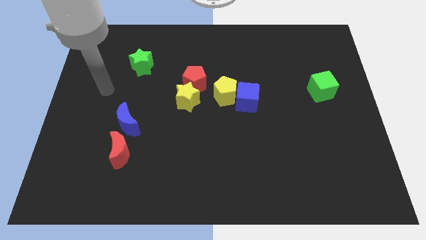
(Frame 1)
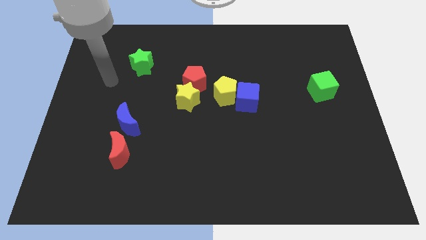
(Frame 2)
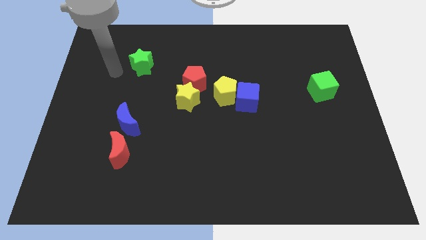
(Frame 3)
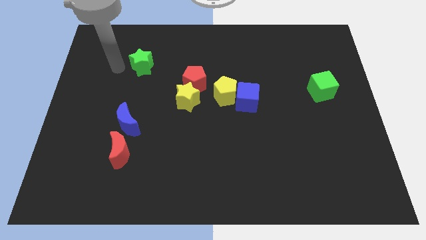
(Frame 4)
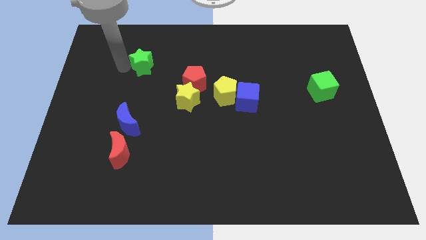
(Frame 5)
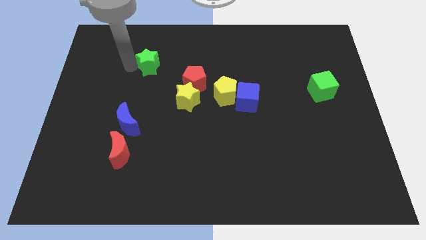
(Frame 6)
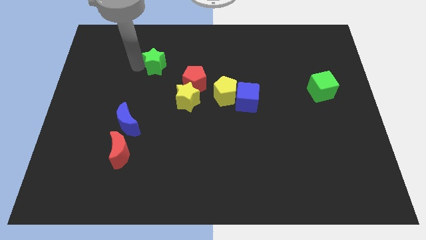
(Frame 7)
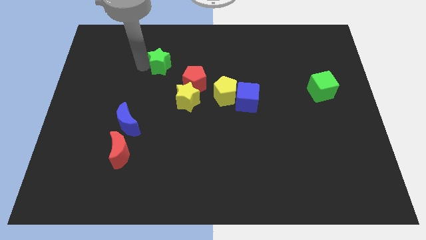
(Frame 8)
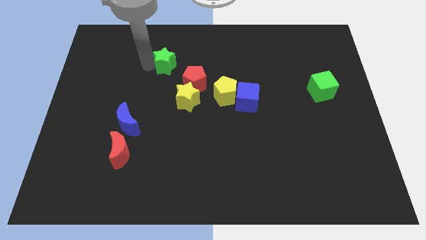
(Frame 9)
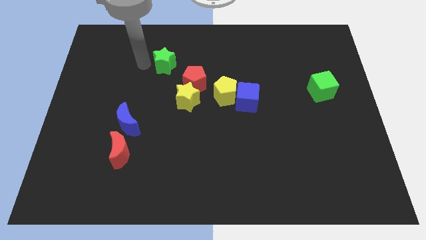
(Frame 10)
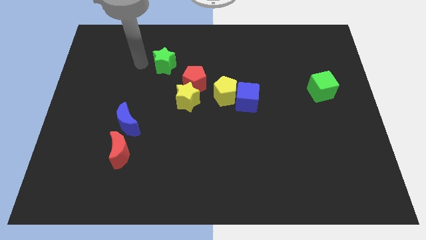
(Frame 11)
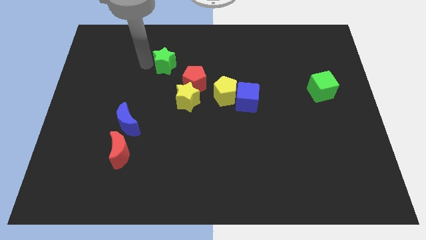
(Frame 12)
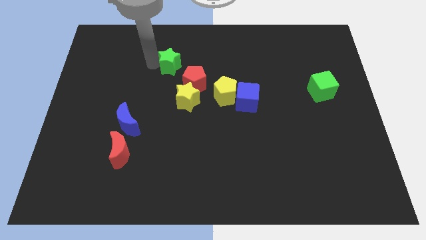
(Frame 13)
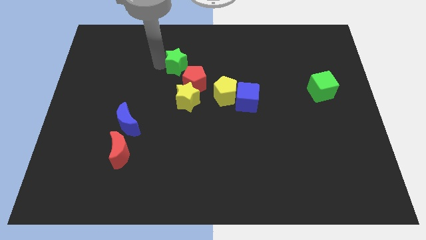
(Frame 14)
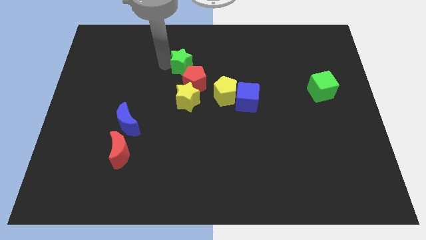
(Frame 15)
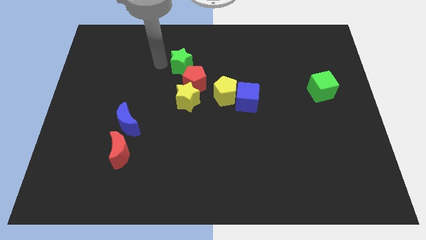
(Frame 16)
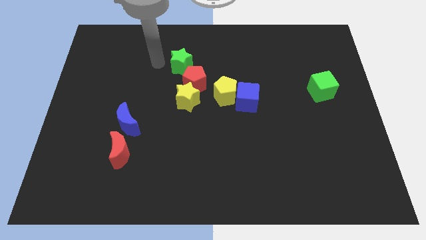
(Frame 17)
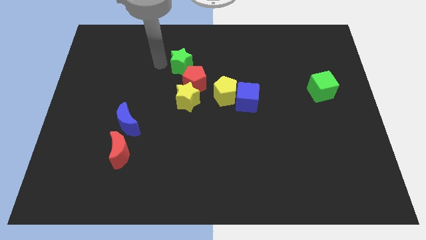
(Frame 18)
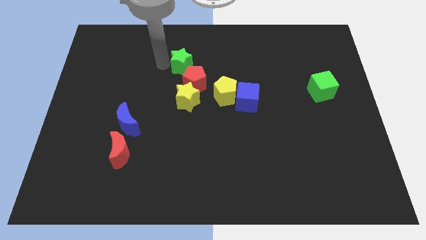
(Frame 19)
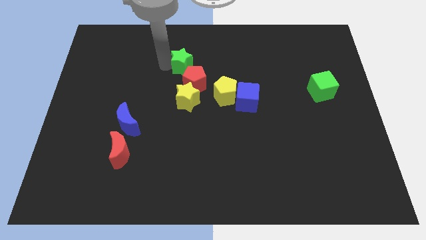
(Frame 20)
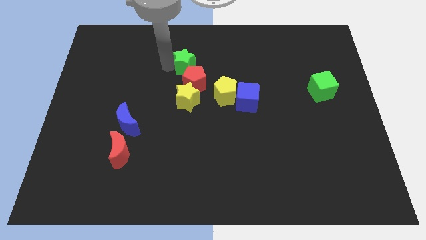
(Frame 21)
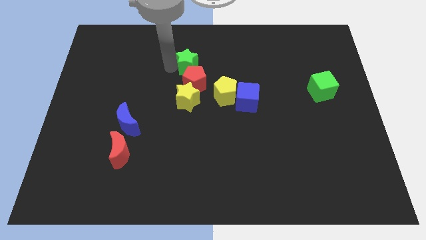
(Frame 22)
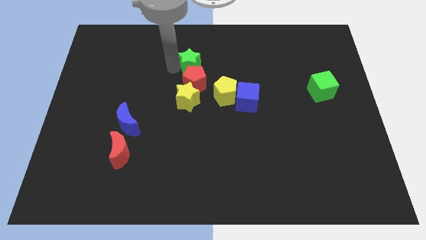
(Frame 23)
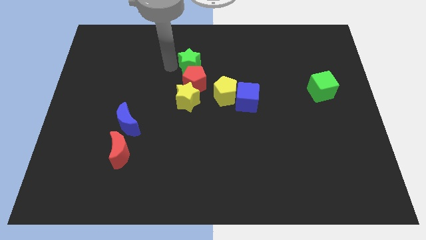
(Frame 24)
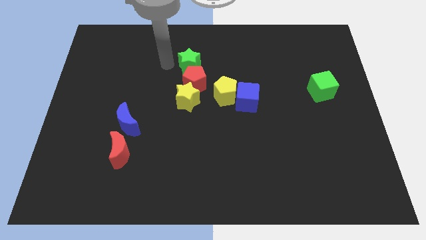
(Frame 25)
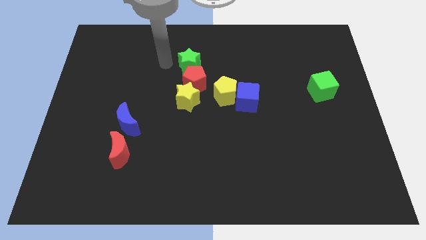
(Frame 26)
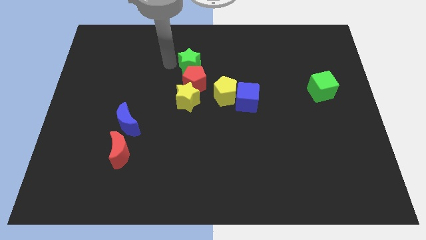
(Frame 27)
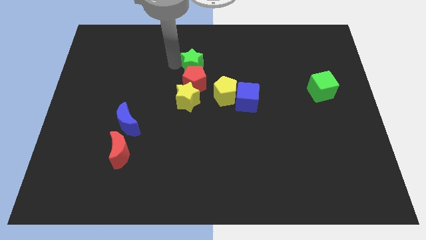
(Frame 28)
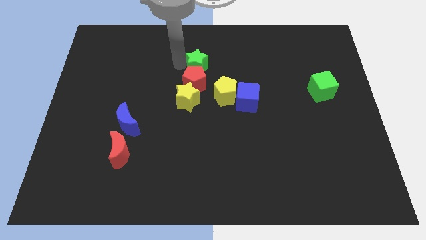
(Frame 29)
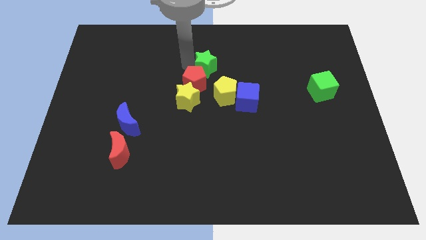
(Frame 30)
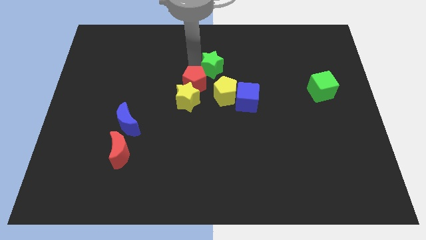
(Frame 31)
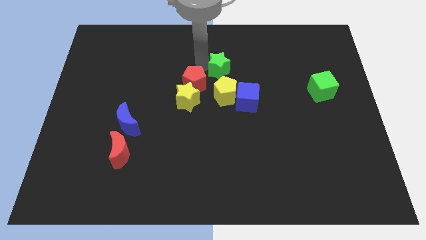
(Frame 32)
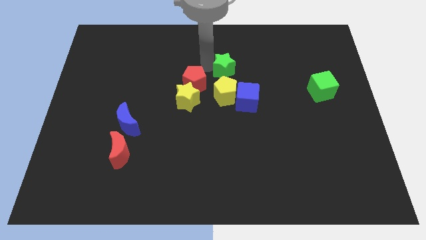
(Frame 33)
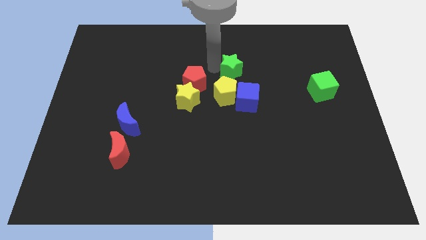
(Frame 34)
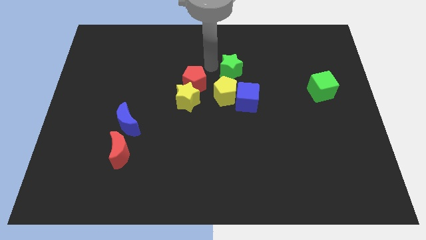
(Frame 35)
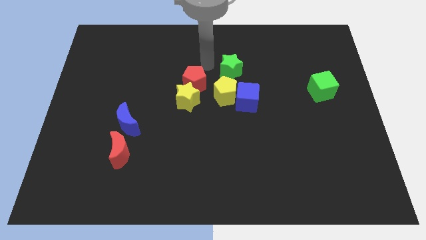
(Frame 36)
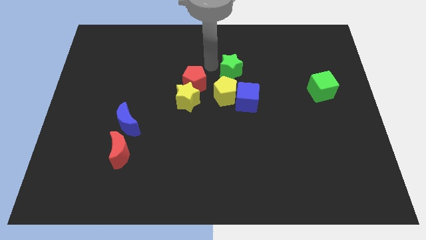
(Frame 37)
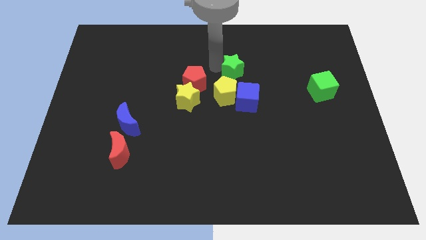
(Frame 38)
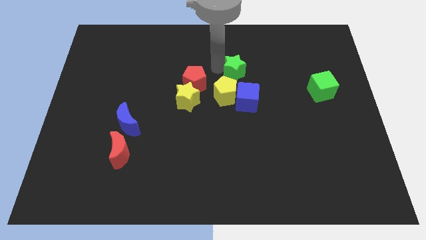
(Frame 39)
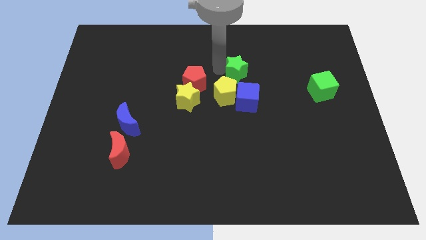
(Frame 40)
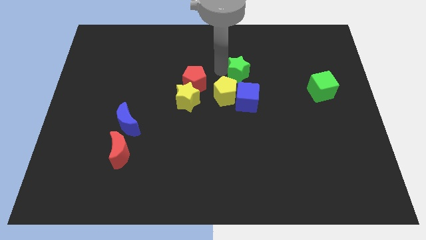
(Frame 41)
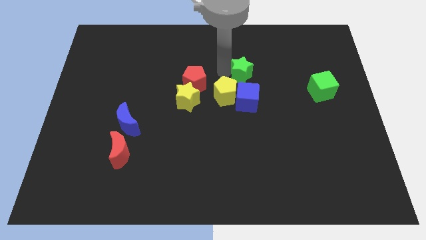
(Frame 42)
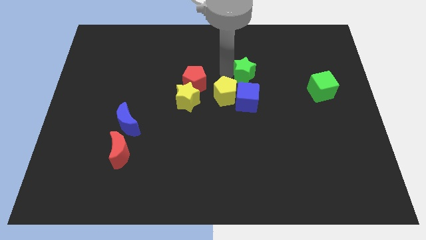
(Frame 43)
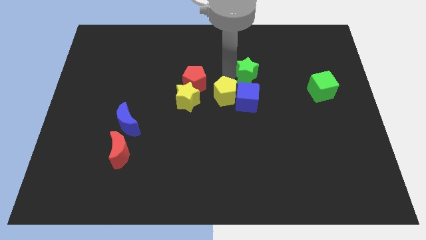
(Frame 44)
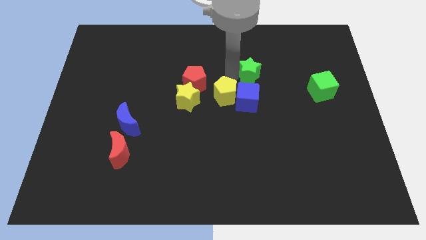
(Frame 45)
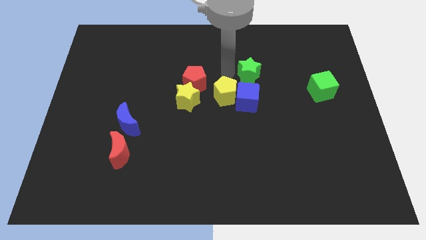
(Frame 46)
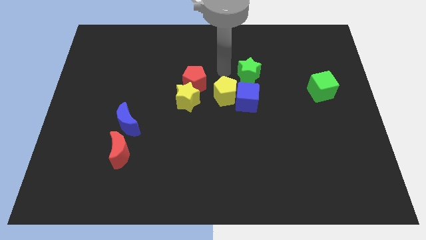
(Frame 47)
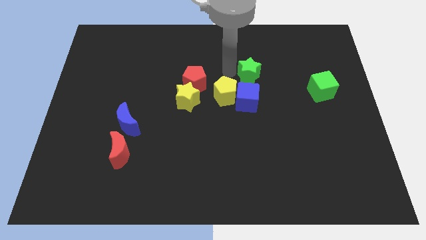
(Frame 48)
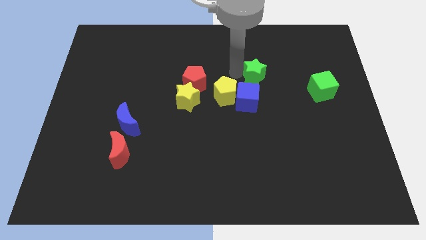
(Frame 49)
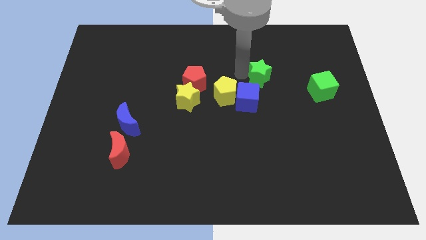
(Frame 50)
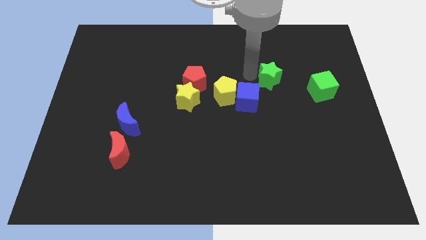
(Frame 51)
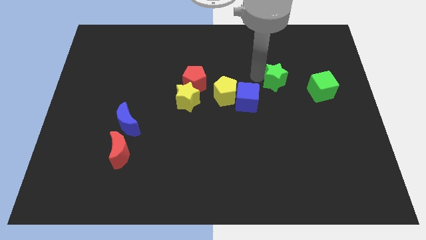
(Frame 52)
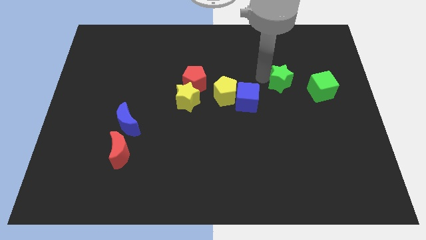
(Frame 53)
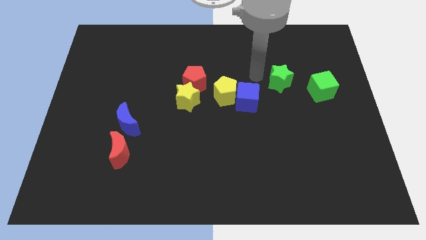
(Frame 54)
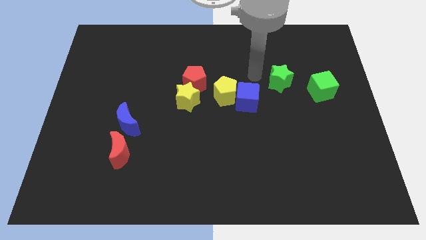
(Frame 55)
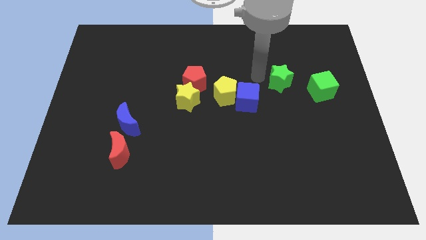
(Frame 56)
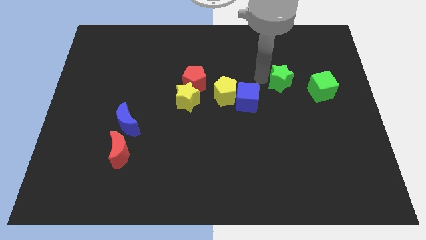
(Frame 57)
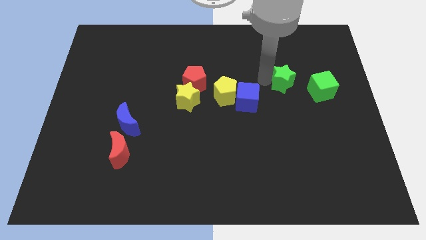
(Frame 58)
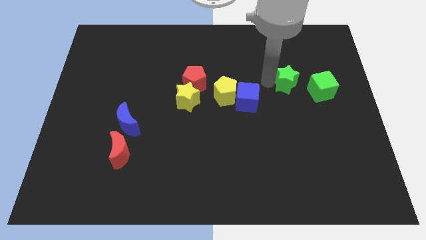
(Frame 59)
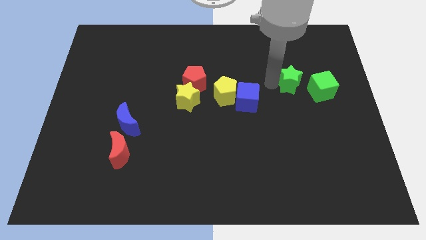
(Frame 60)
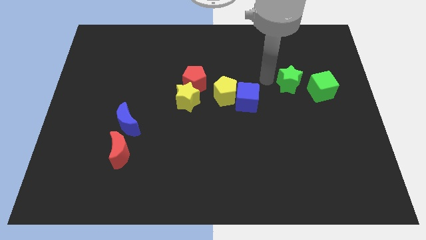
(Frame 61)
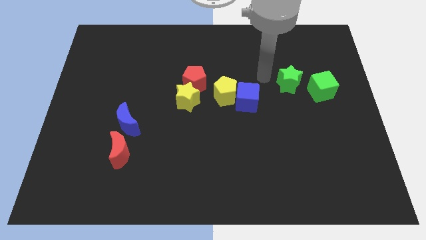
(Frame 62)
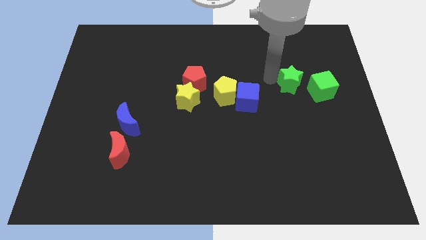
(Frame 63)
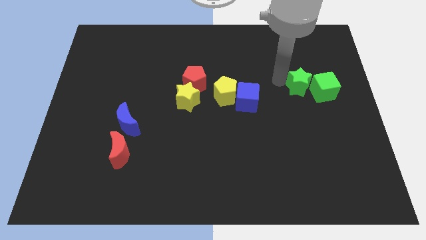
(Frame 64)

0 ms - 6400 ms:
slide the green star next to the green cube

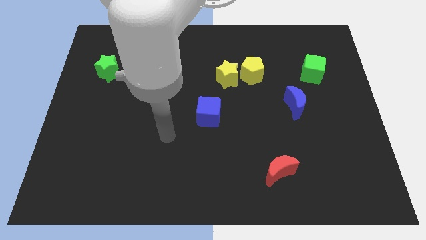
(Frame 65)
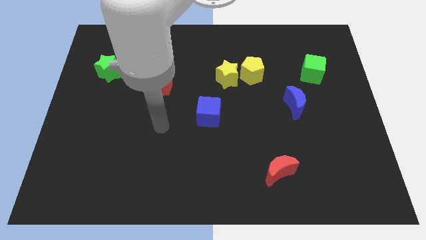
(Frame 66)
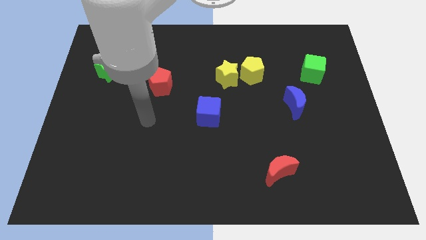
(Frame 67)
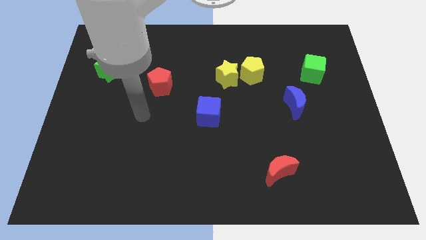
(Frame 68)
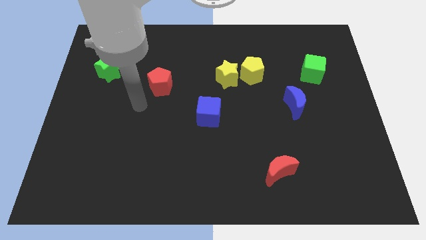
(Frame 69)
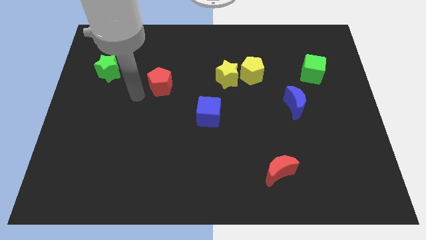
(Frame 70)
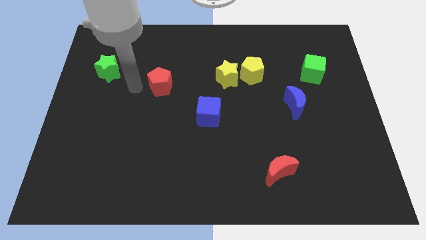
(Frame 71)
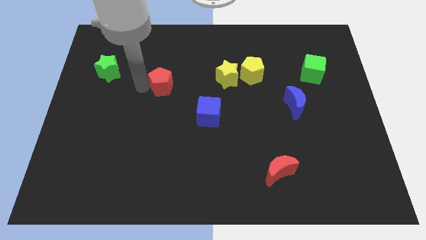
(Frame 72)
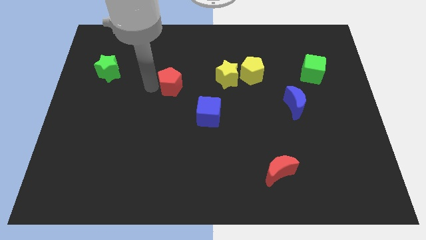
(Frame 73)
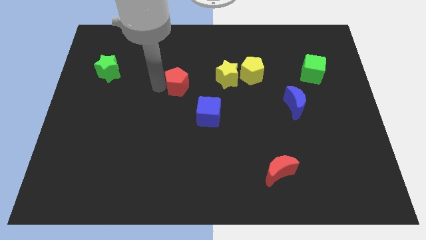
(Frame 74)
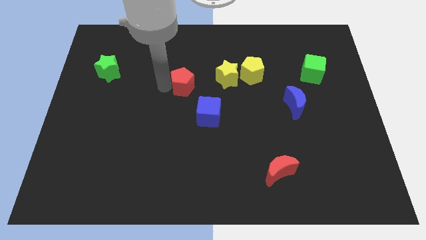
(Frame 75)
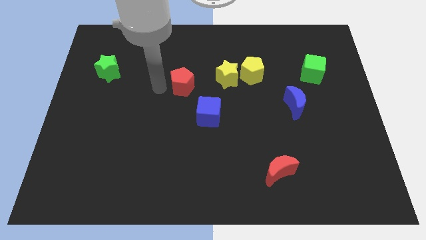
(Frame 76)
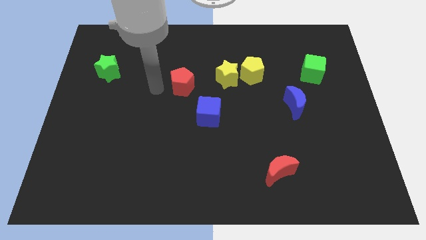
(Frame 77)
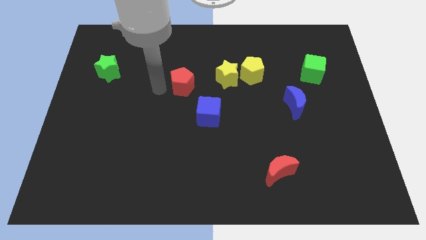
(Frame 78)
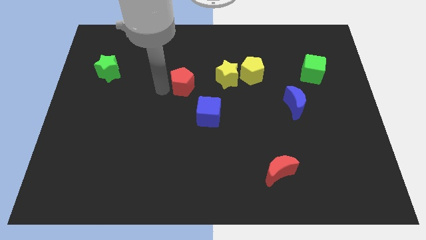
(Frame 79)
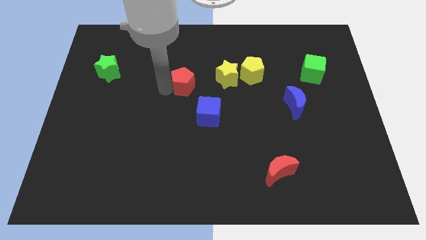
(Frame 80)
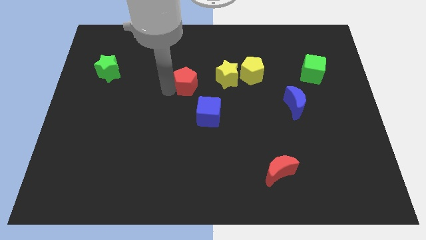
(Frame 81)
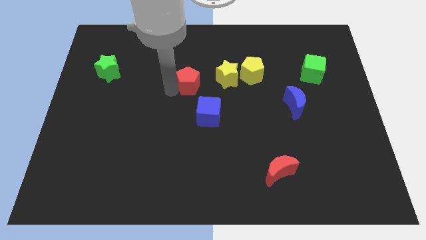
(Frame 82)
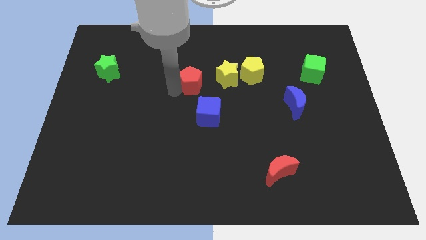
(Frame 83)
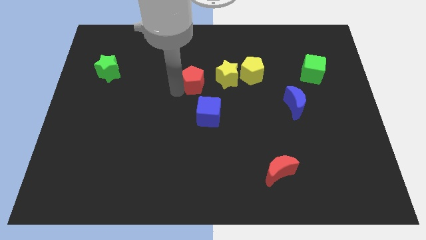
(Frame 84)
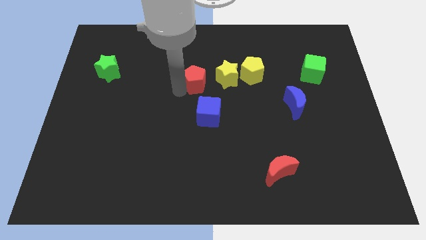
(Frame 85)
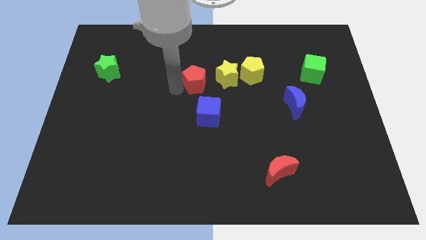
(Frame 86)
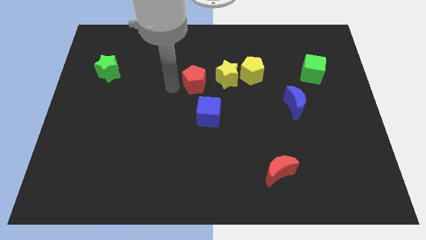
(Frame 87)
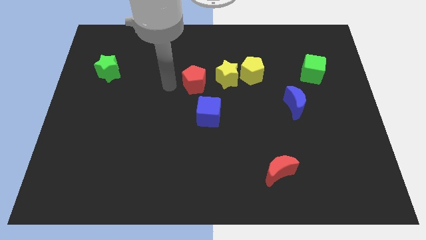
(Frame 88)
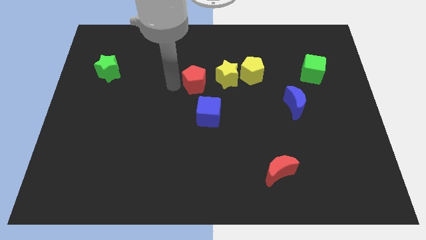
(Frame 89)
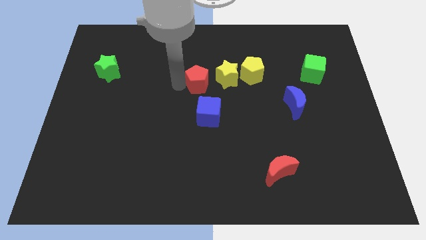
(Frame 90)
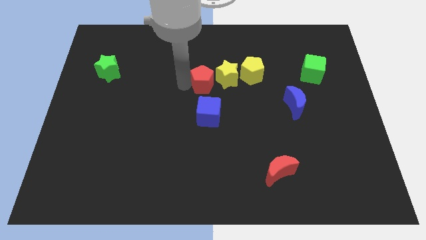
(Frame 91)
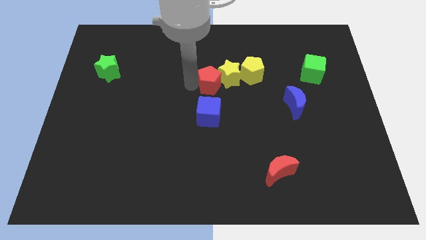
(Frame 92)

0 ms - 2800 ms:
move the red pentagon next to the yellow star
